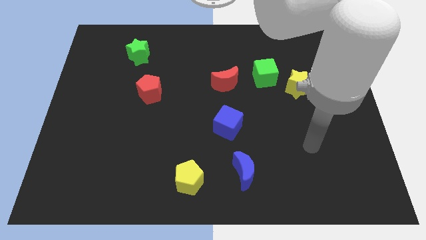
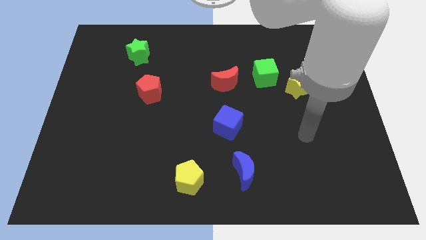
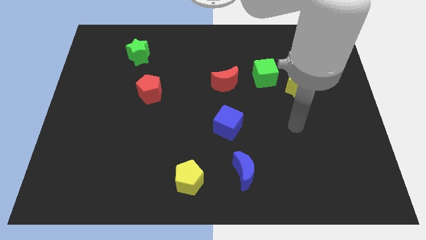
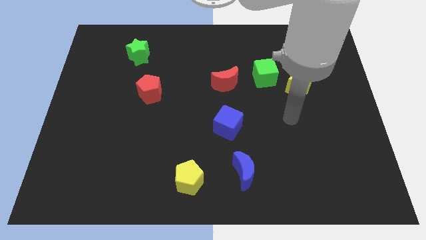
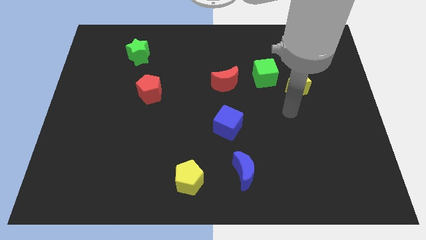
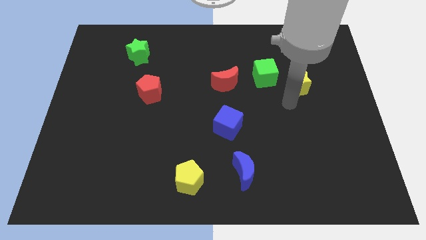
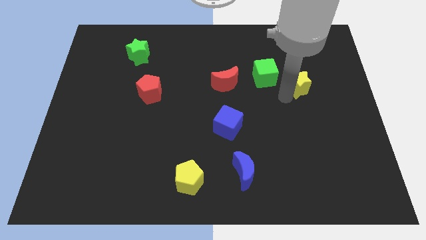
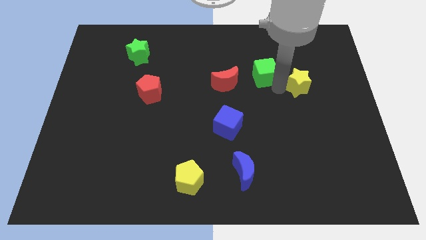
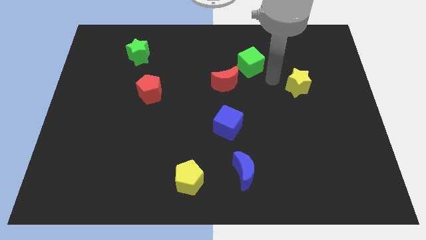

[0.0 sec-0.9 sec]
pull the yellow star apart from the green cube

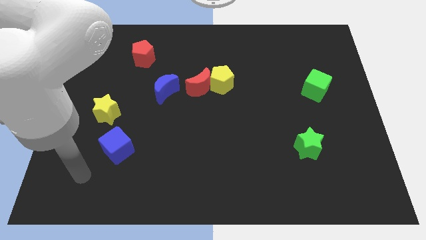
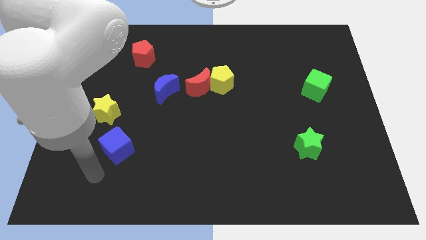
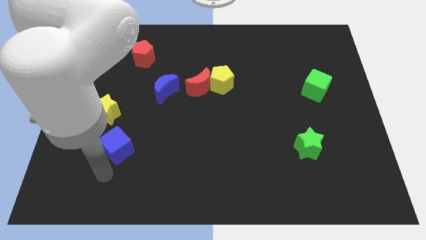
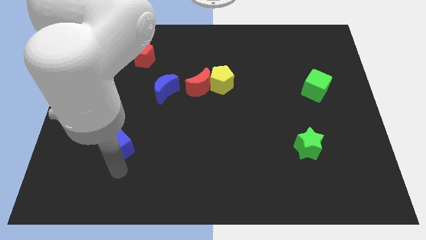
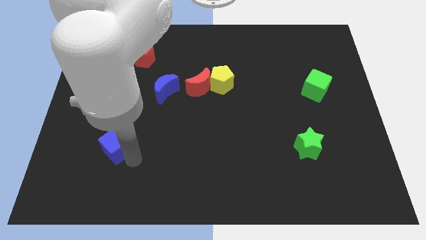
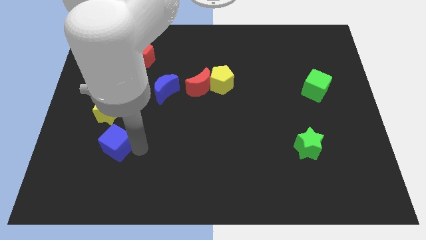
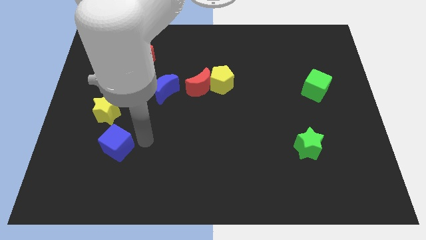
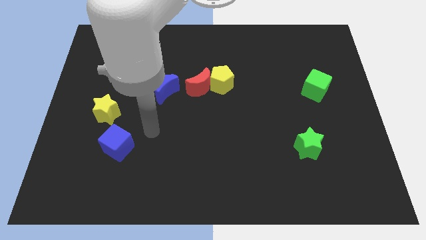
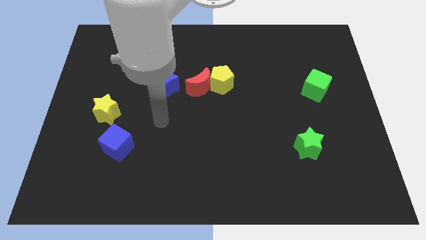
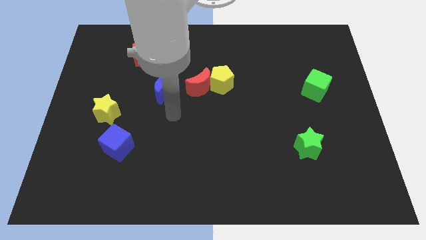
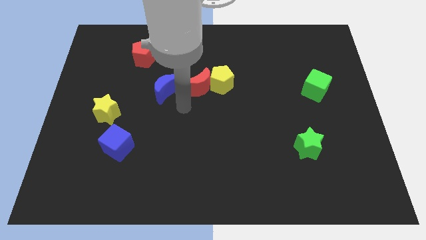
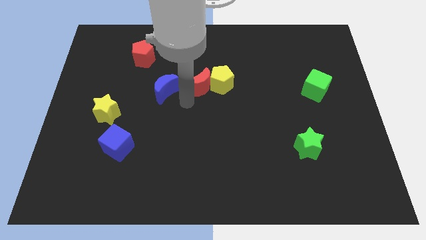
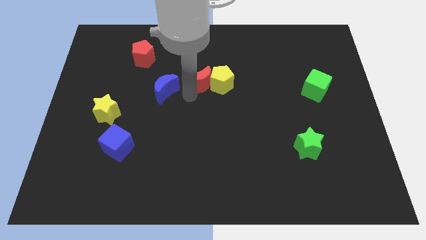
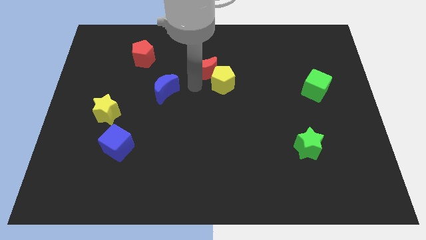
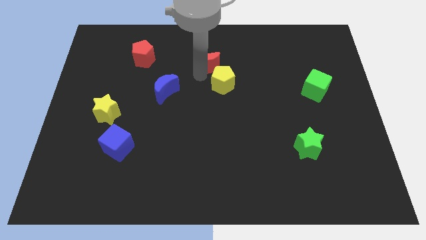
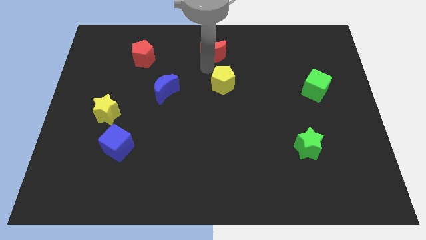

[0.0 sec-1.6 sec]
pull the yellow pentagon apart from the red moon

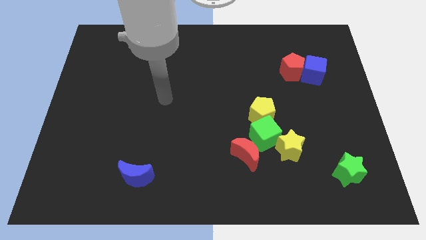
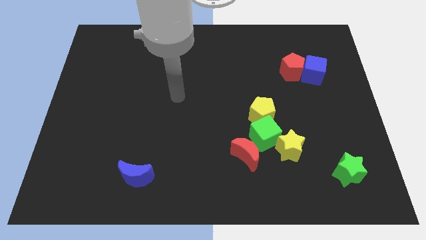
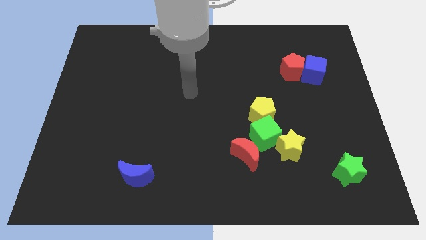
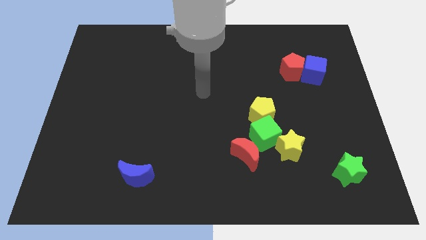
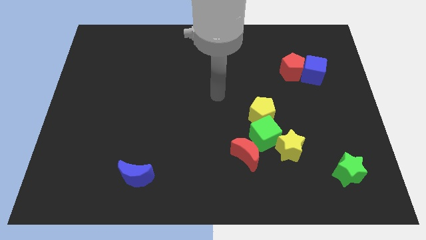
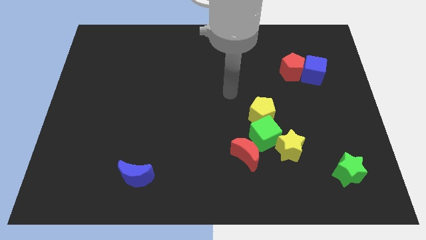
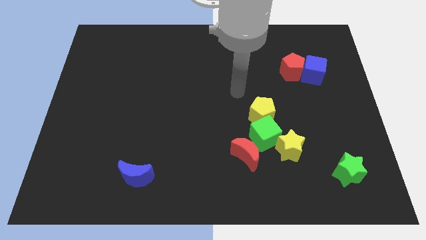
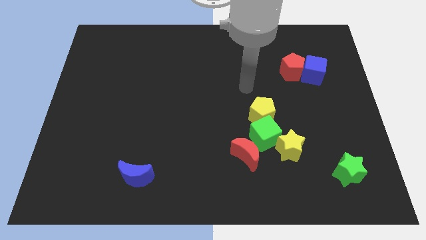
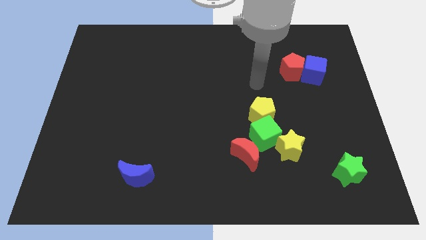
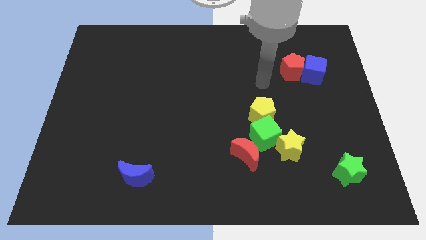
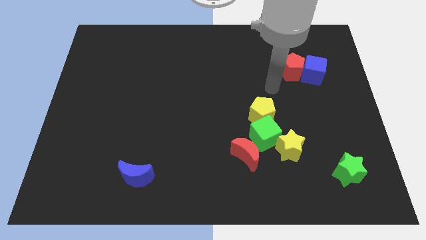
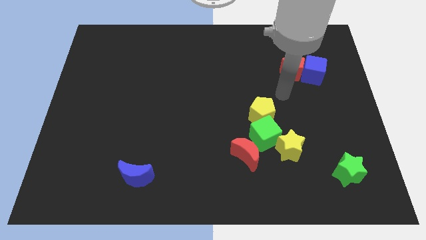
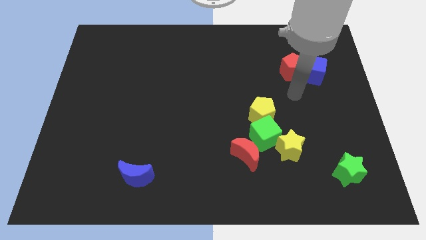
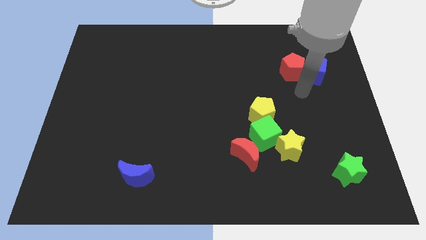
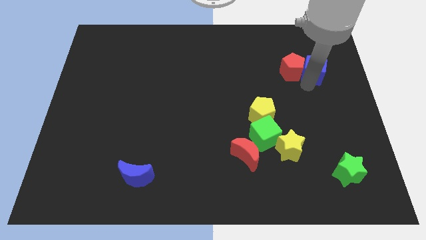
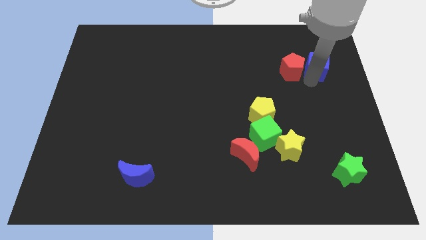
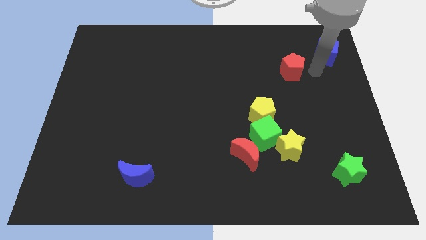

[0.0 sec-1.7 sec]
move the red pentagon away from the blue cube

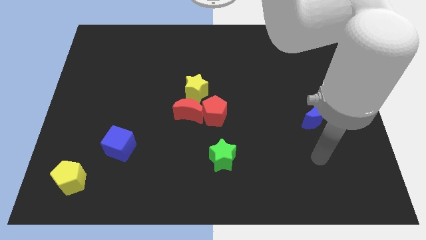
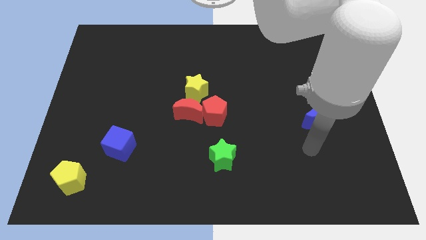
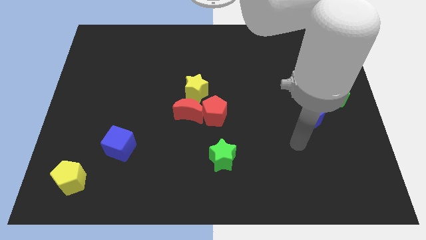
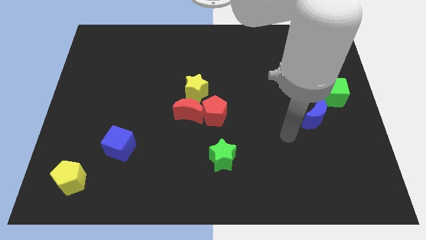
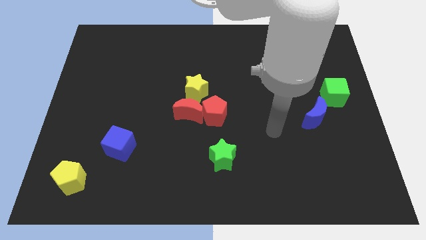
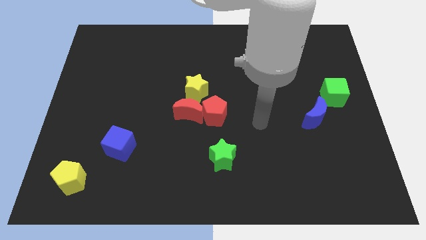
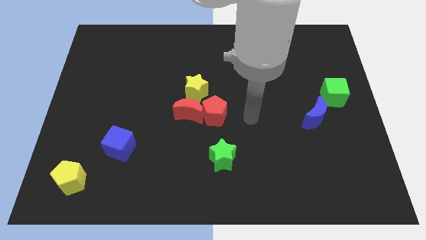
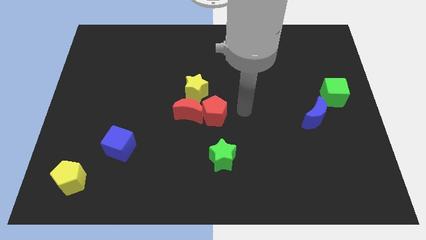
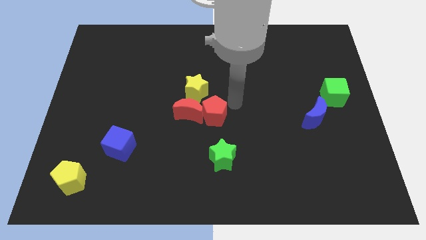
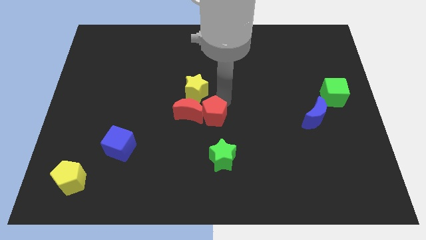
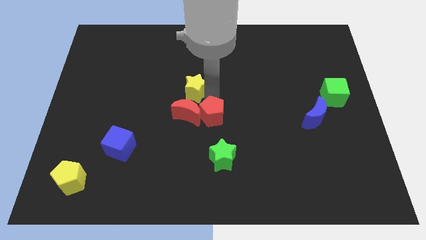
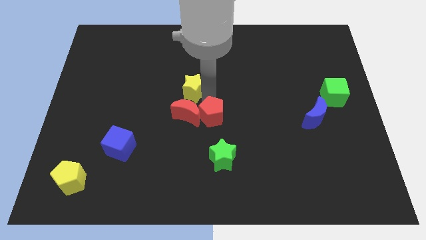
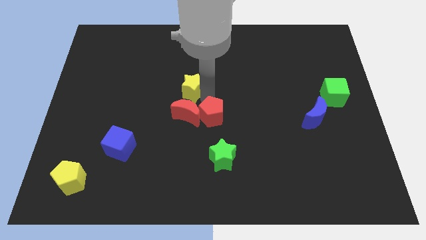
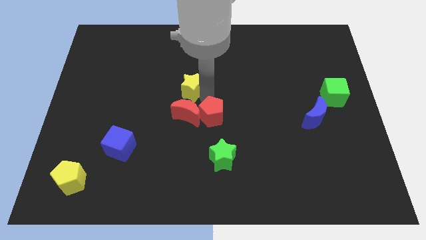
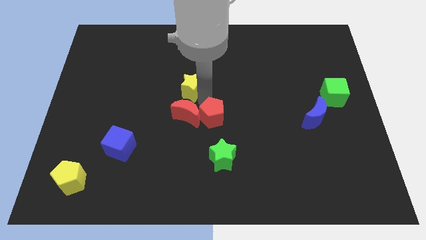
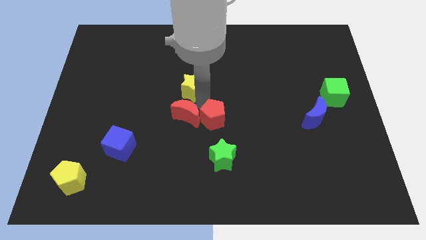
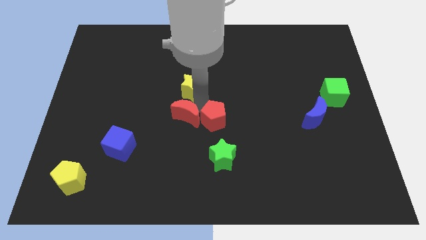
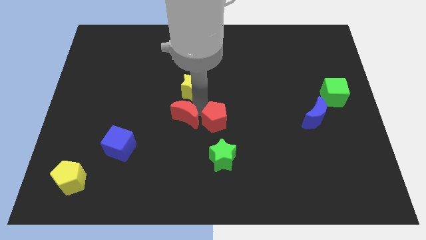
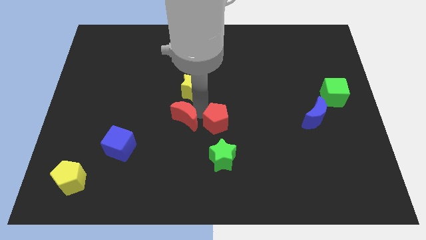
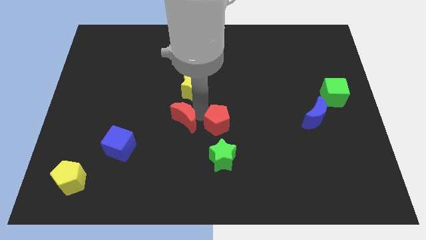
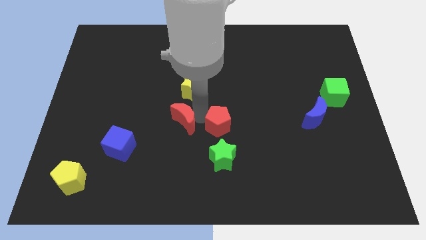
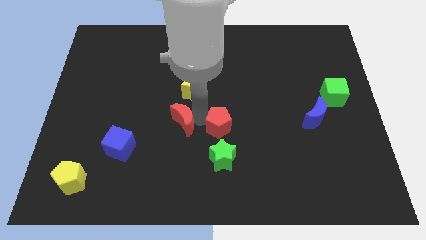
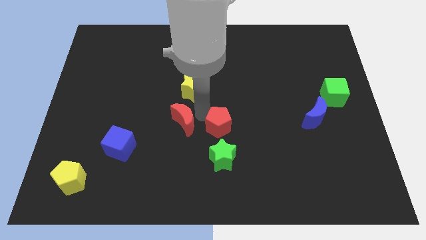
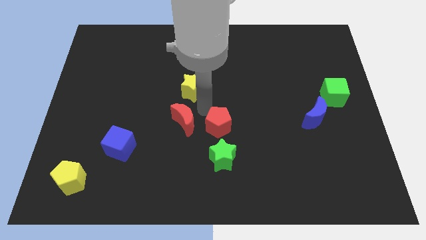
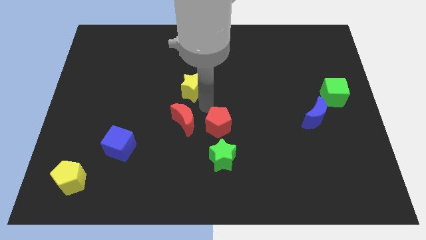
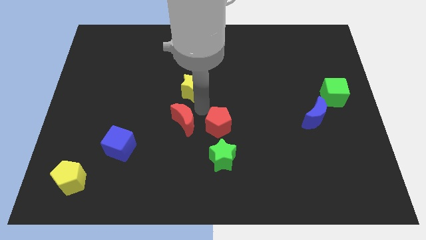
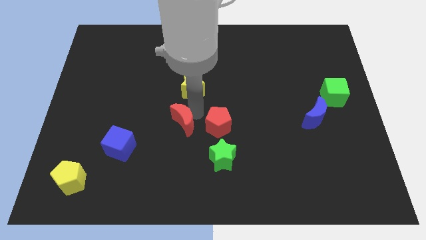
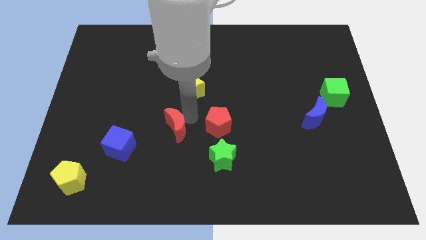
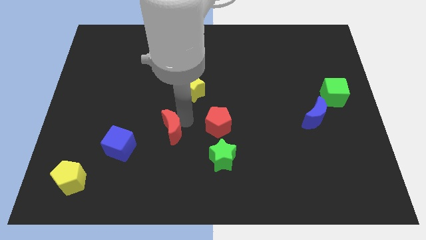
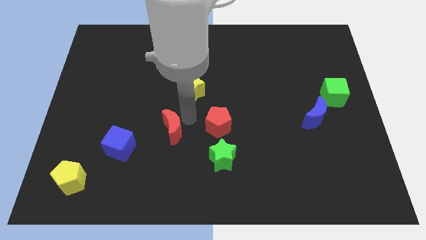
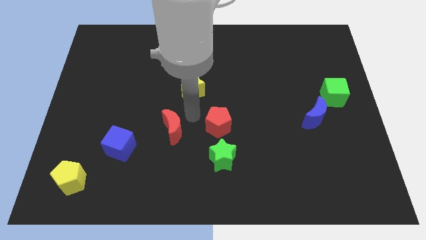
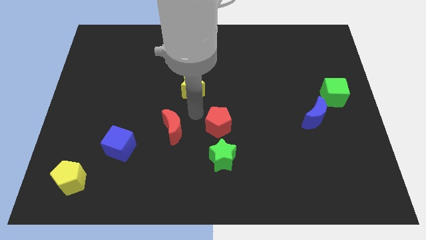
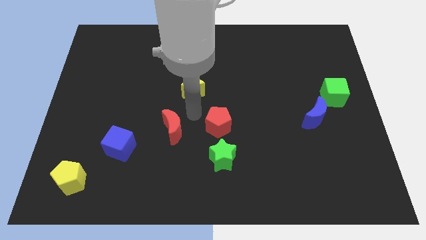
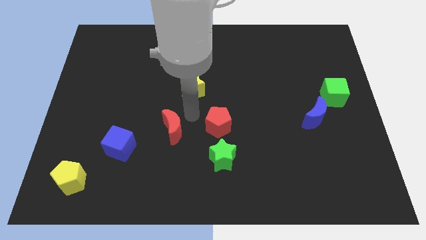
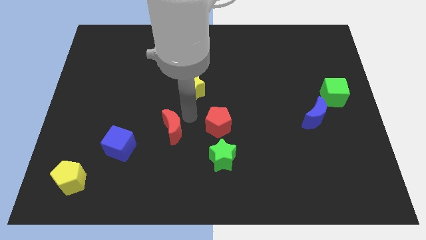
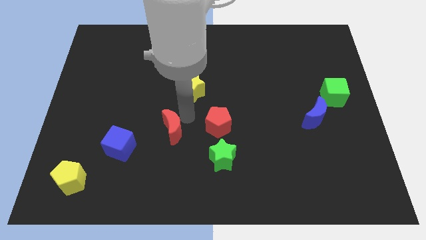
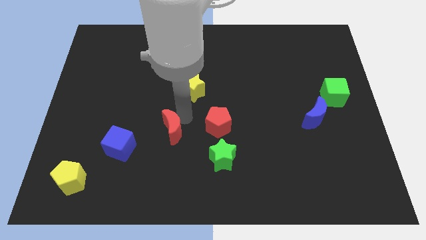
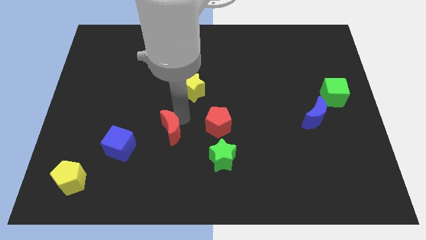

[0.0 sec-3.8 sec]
pull the red moon apart from the red pentagon and yellow star

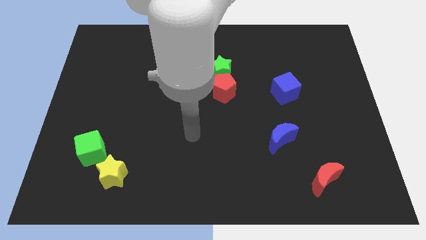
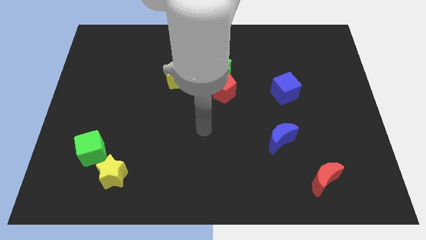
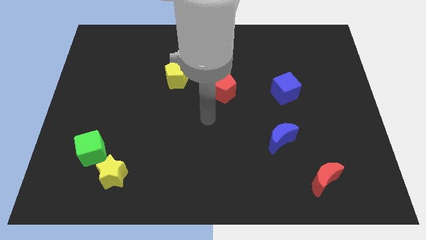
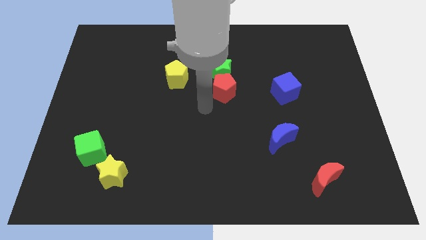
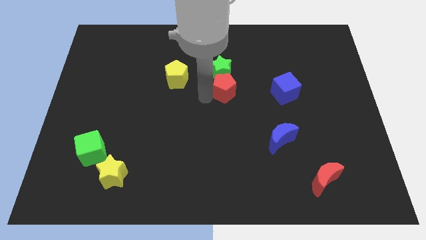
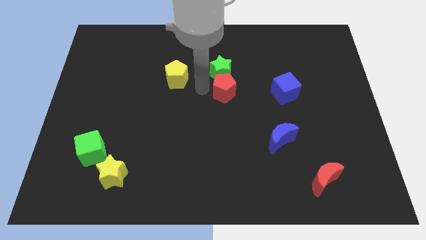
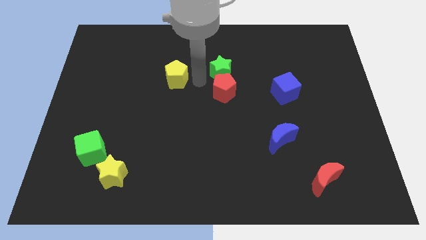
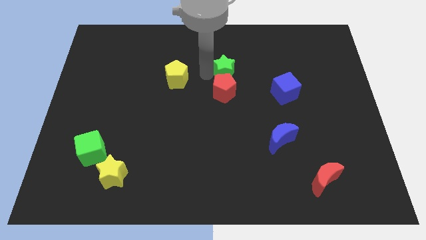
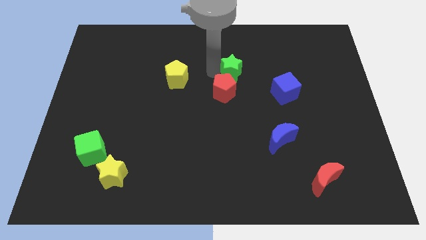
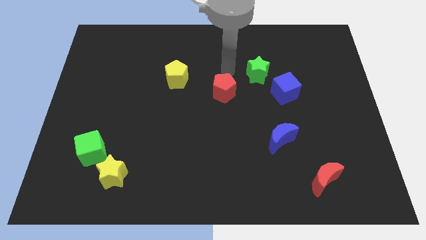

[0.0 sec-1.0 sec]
move the red pentagon away from the green star
